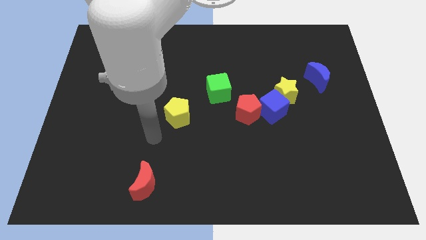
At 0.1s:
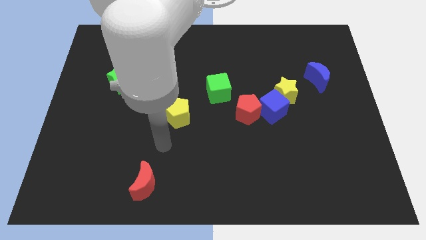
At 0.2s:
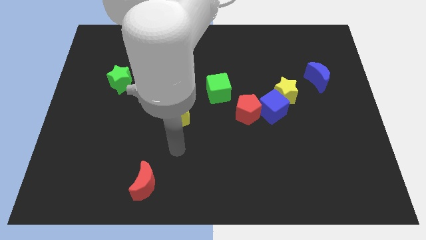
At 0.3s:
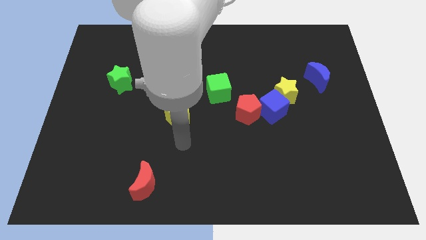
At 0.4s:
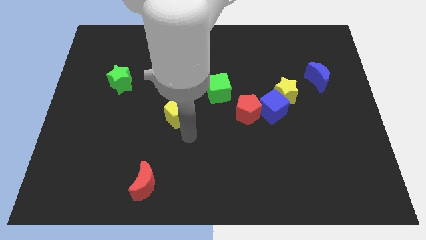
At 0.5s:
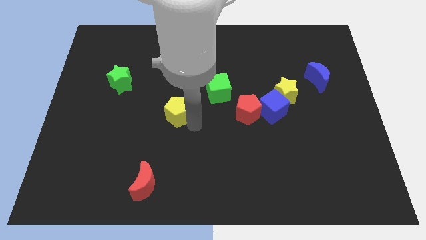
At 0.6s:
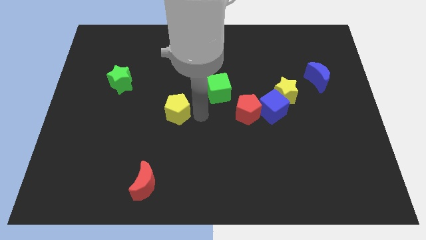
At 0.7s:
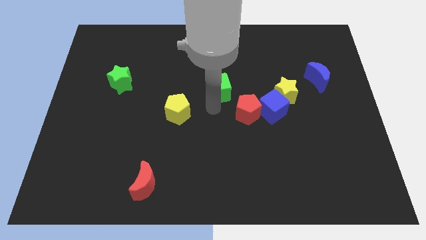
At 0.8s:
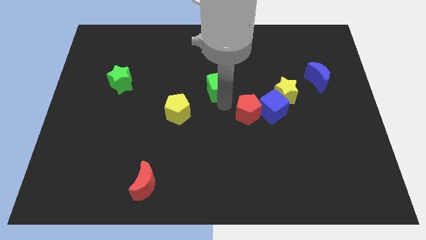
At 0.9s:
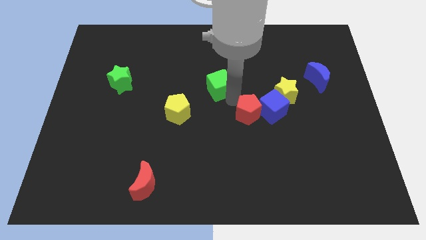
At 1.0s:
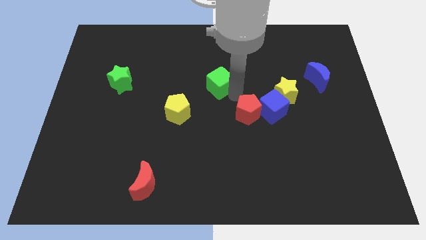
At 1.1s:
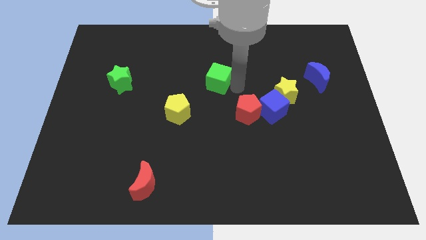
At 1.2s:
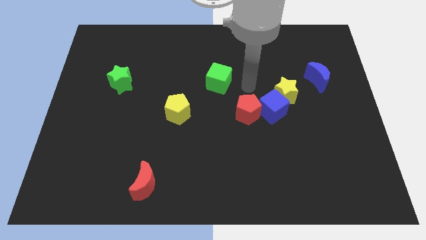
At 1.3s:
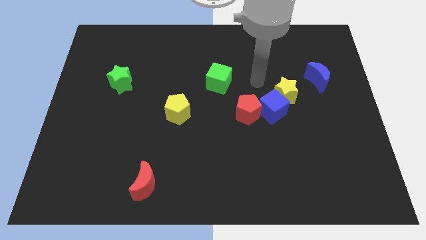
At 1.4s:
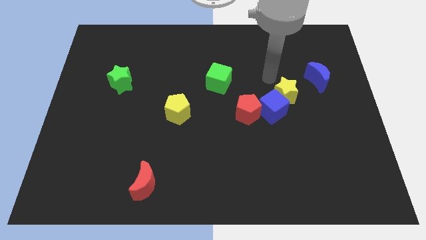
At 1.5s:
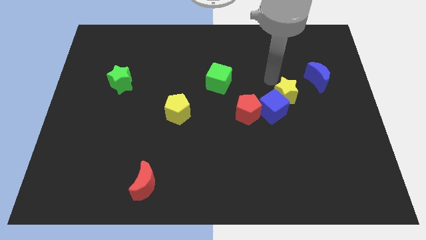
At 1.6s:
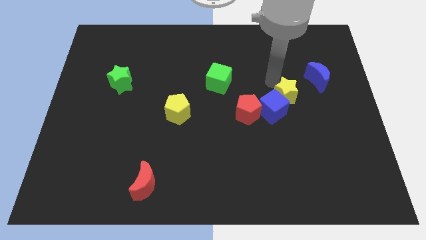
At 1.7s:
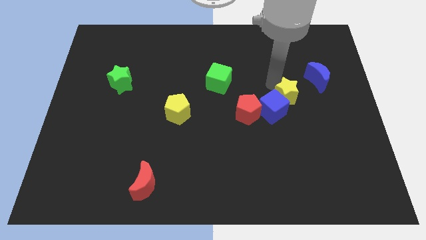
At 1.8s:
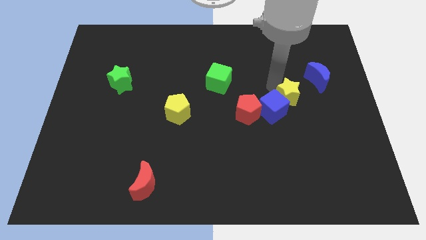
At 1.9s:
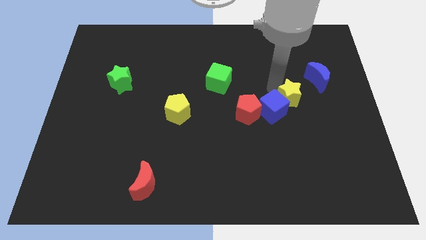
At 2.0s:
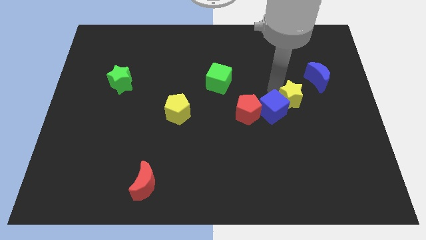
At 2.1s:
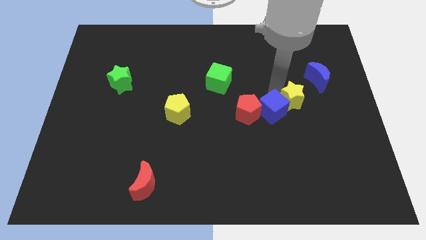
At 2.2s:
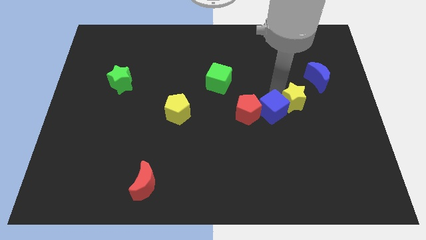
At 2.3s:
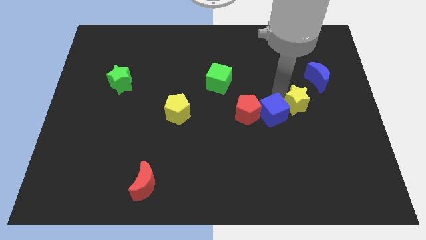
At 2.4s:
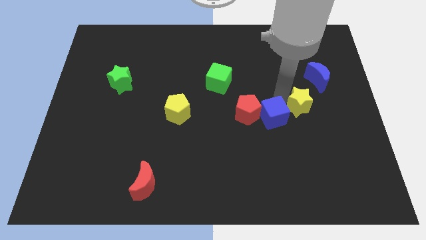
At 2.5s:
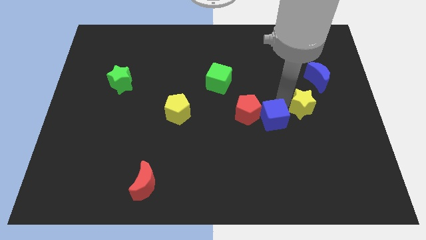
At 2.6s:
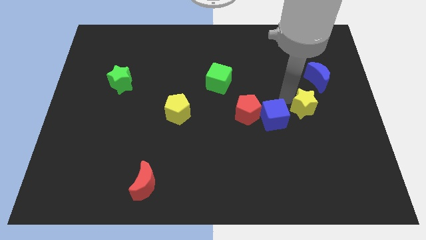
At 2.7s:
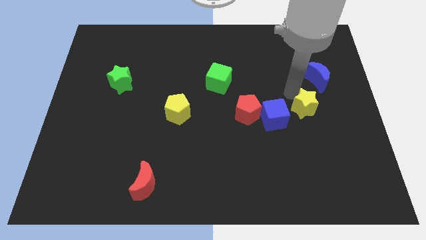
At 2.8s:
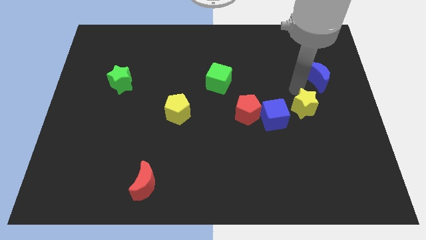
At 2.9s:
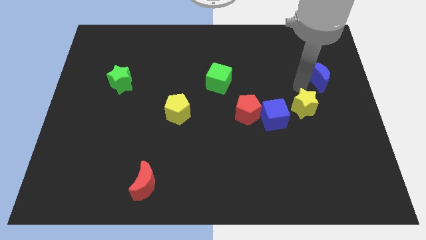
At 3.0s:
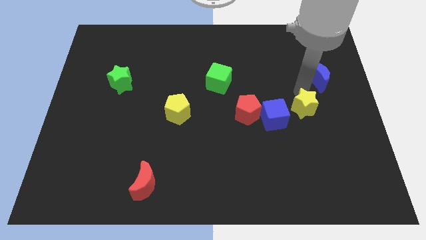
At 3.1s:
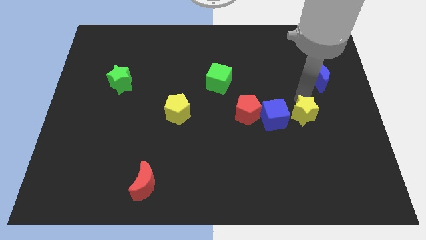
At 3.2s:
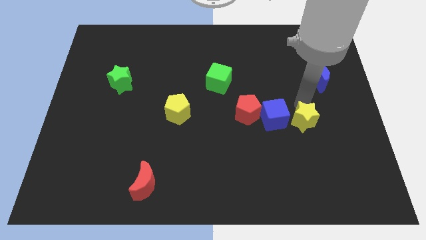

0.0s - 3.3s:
slide the yellow star a bit downwards

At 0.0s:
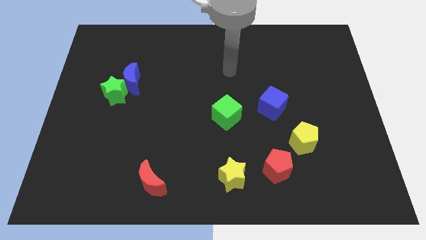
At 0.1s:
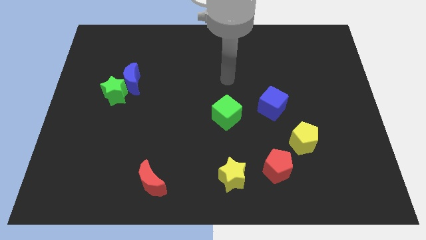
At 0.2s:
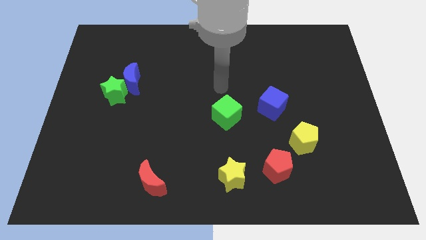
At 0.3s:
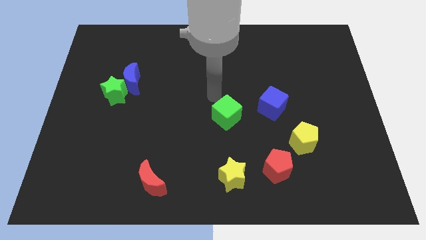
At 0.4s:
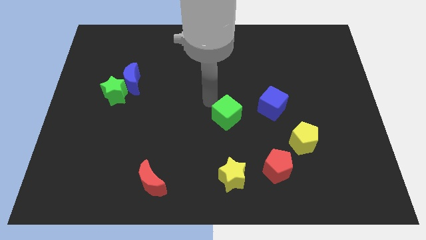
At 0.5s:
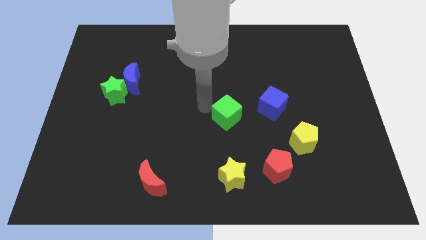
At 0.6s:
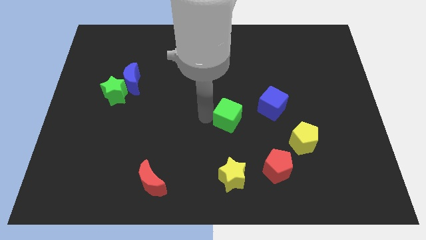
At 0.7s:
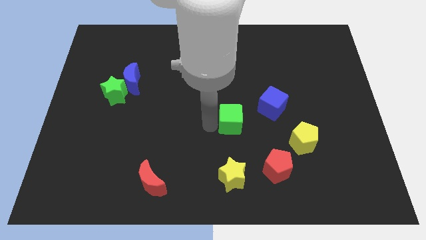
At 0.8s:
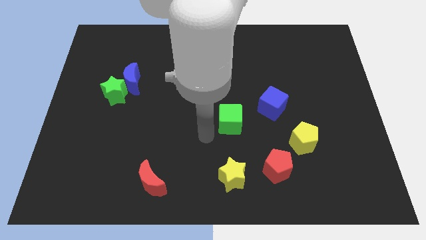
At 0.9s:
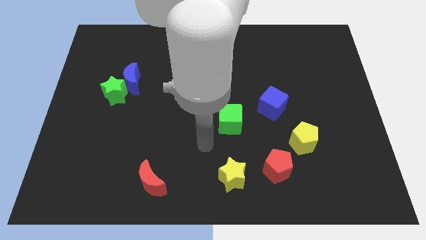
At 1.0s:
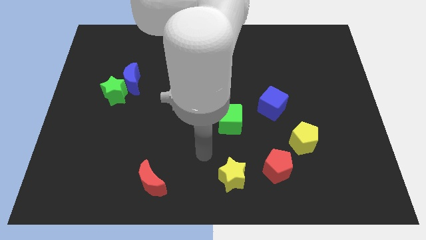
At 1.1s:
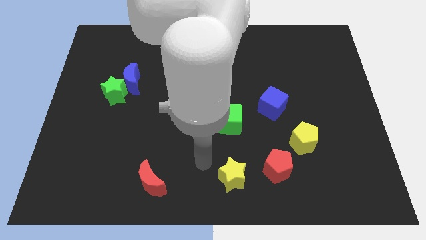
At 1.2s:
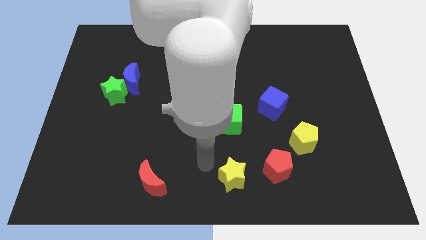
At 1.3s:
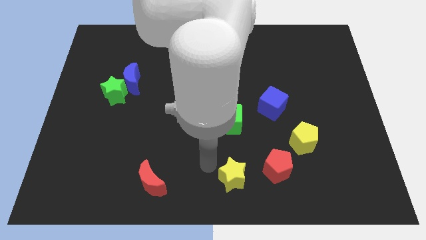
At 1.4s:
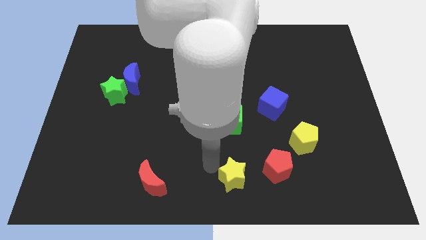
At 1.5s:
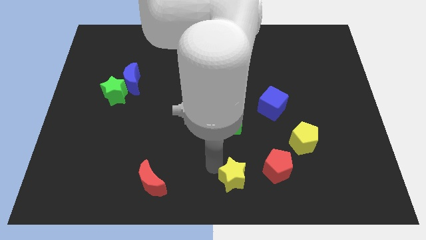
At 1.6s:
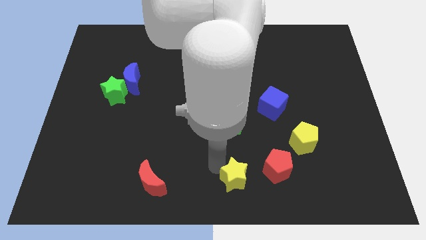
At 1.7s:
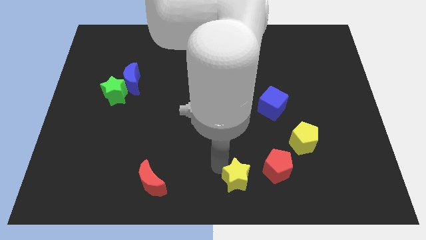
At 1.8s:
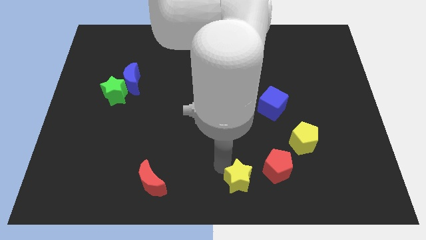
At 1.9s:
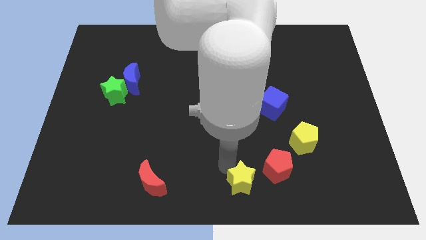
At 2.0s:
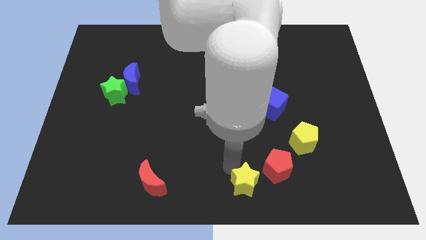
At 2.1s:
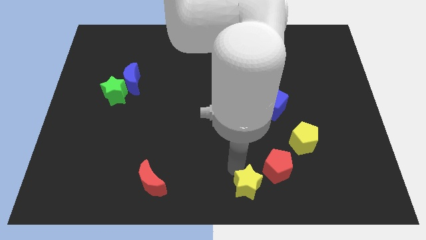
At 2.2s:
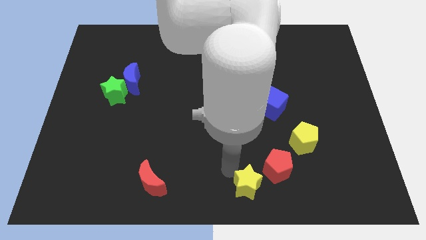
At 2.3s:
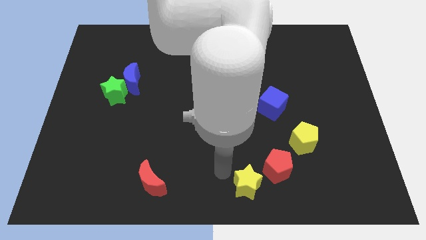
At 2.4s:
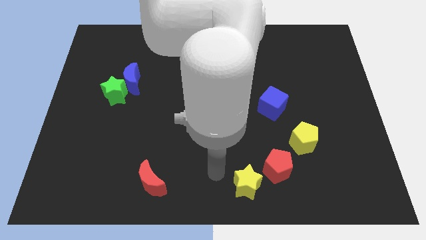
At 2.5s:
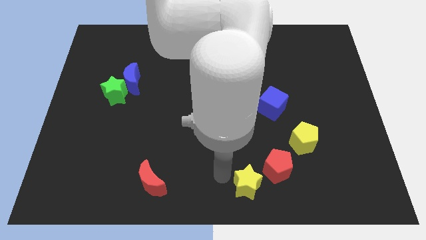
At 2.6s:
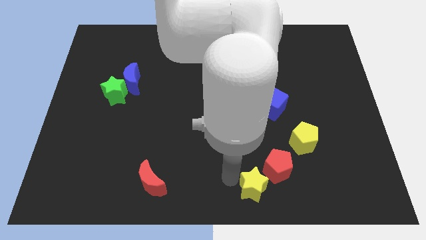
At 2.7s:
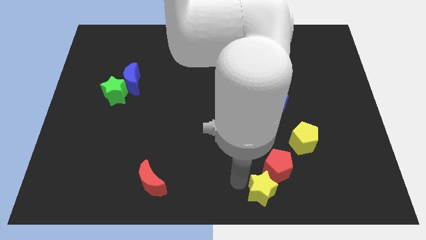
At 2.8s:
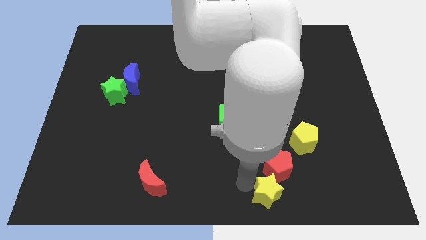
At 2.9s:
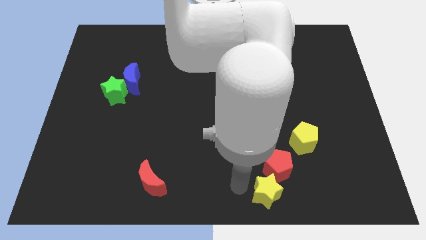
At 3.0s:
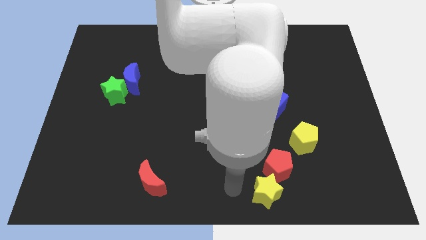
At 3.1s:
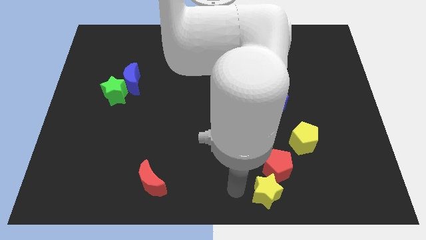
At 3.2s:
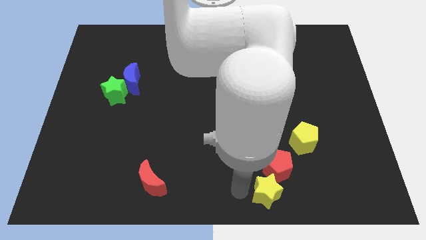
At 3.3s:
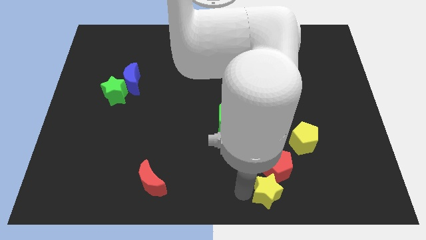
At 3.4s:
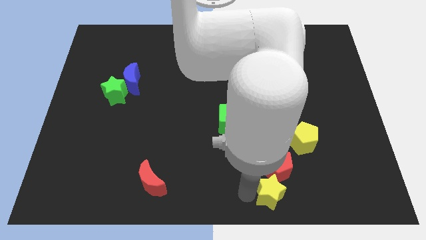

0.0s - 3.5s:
push the yellow star to the right a little

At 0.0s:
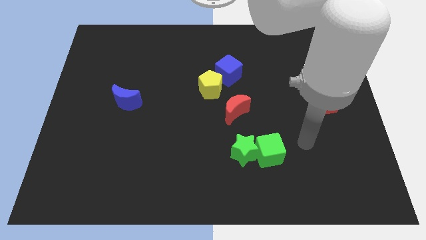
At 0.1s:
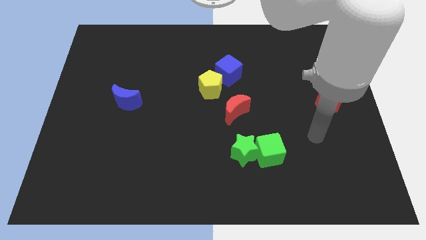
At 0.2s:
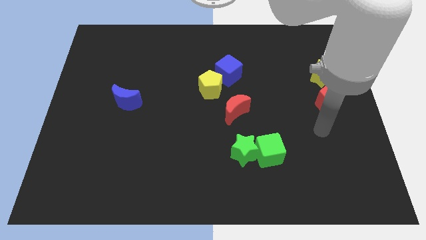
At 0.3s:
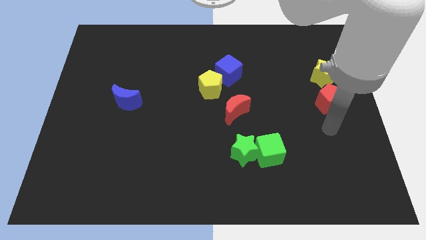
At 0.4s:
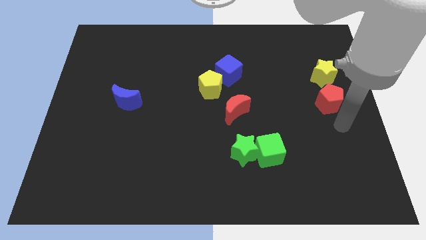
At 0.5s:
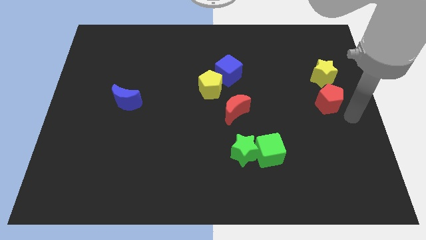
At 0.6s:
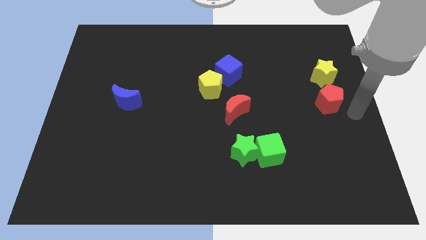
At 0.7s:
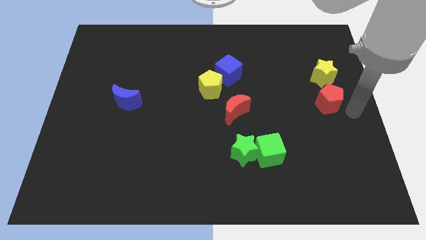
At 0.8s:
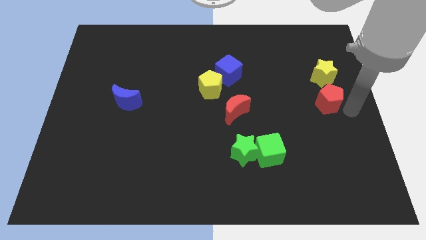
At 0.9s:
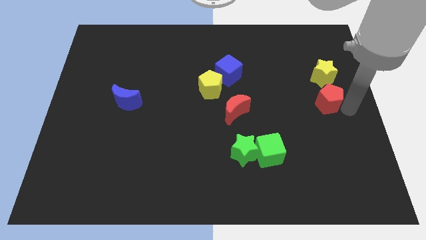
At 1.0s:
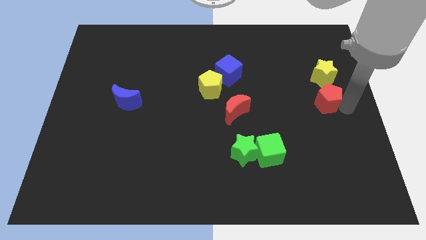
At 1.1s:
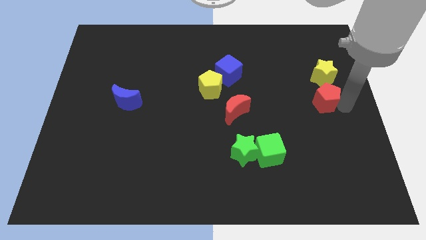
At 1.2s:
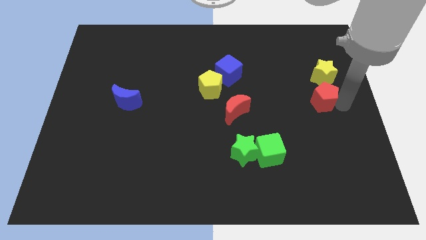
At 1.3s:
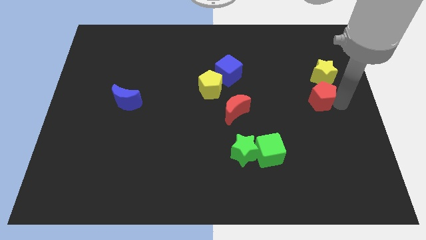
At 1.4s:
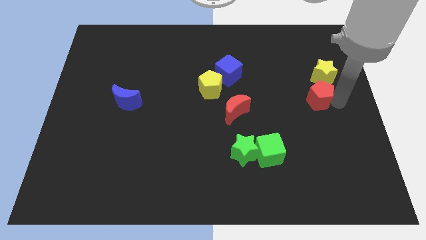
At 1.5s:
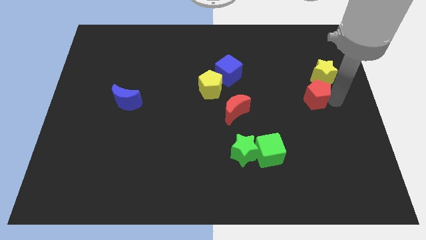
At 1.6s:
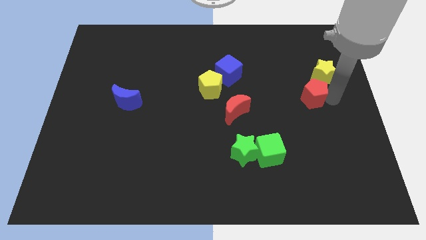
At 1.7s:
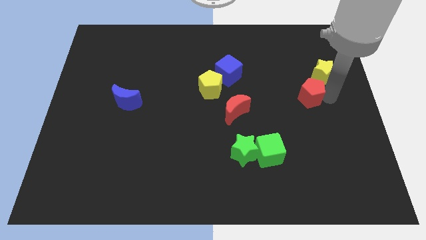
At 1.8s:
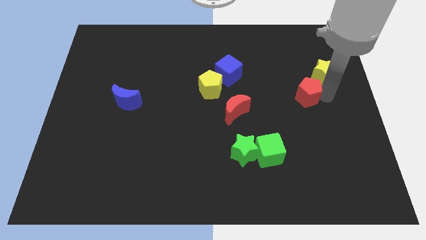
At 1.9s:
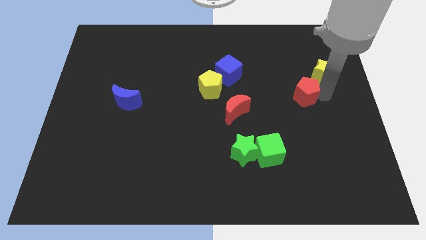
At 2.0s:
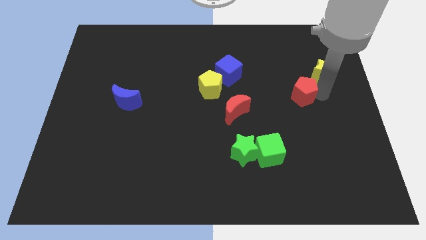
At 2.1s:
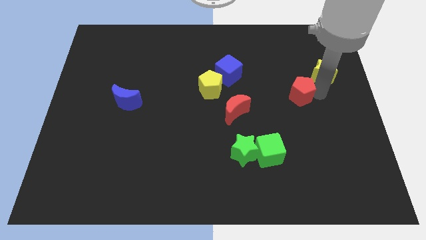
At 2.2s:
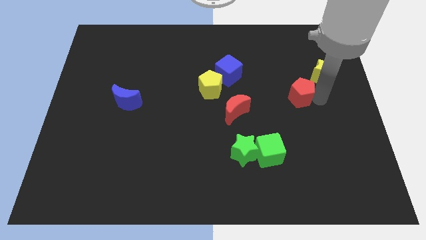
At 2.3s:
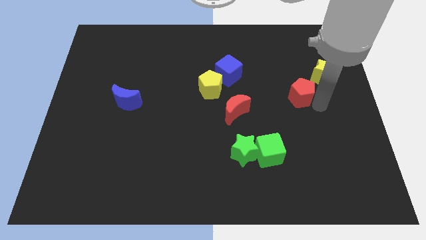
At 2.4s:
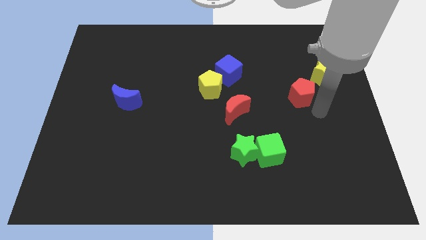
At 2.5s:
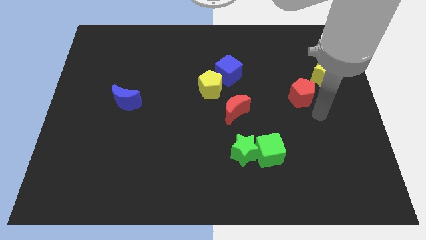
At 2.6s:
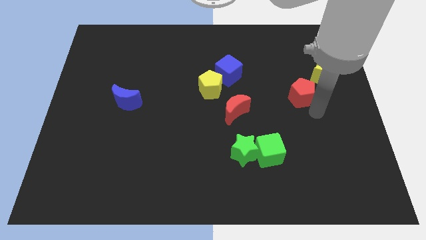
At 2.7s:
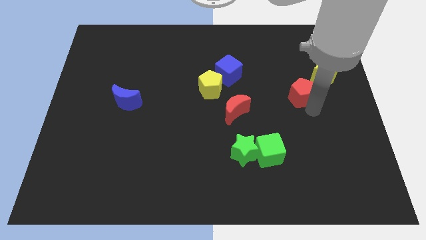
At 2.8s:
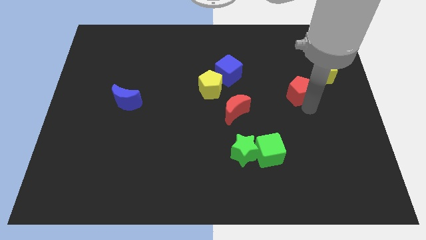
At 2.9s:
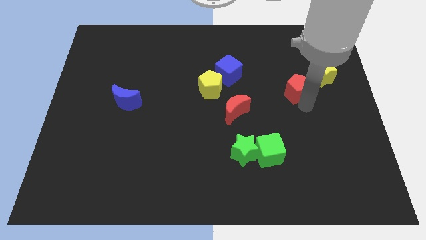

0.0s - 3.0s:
move the red pentagon a little up and left
